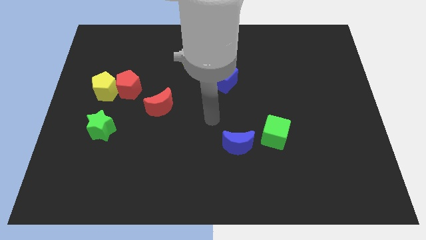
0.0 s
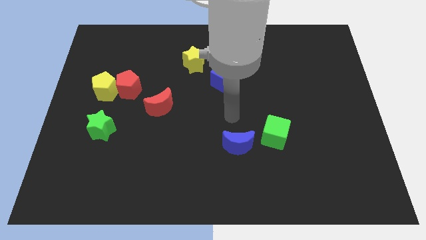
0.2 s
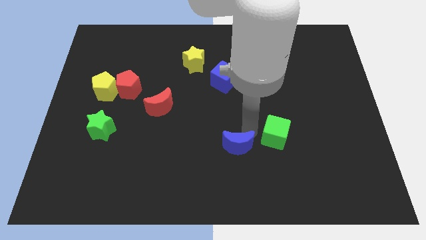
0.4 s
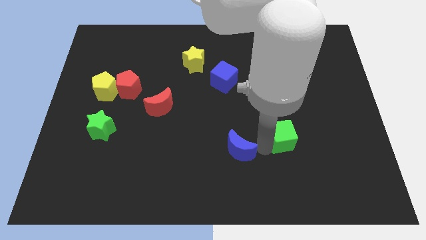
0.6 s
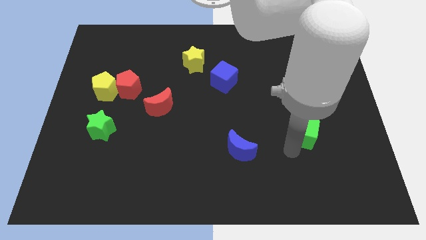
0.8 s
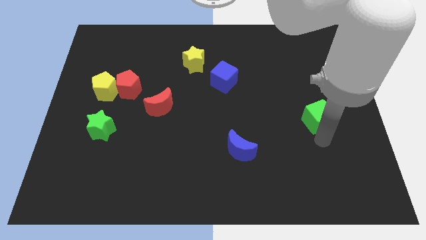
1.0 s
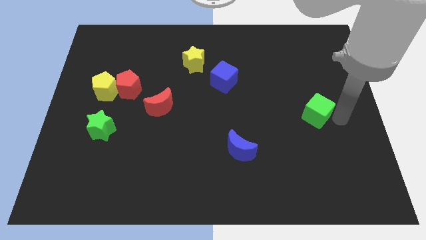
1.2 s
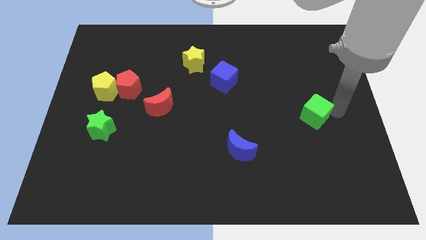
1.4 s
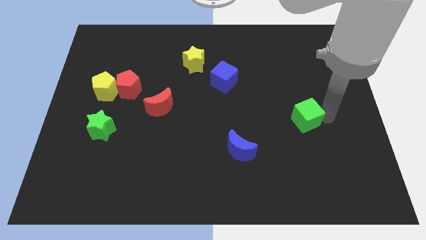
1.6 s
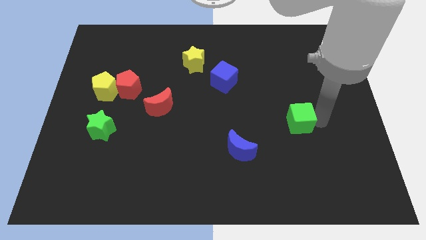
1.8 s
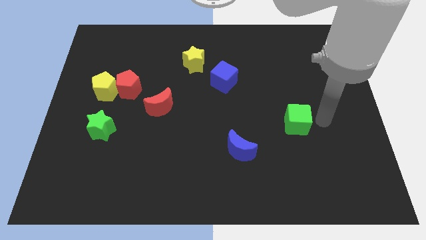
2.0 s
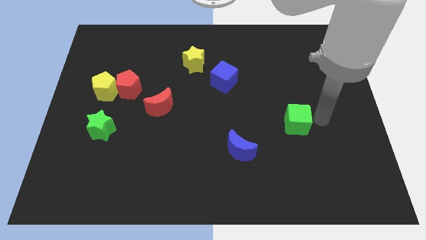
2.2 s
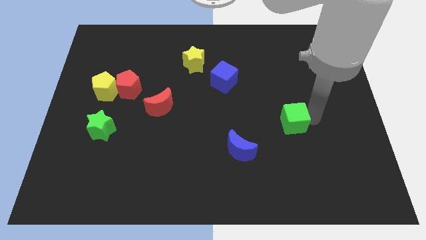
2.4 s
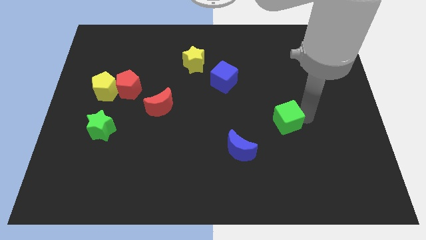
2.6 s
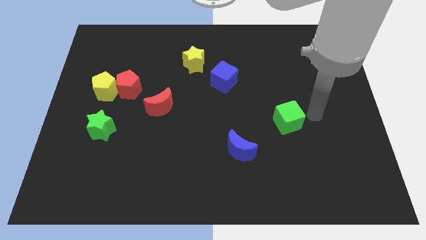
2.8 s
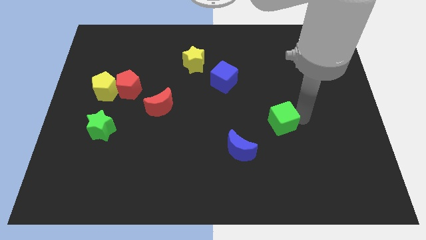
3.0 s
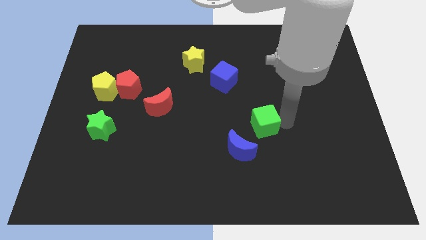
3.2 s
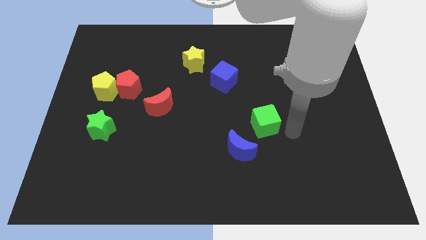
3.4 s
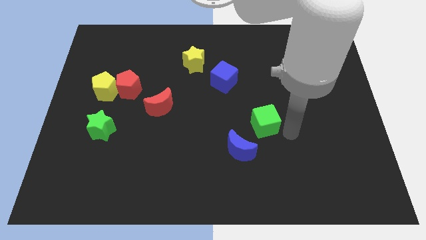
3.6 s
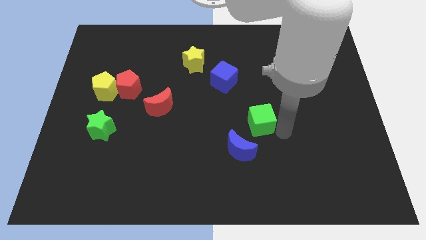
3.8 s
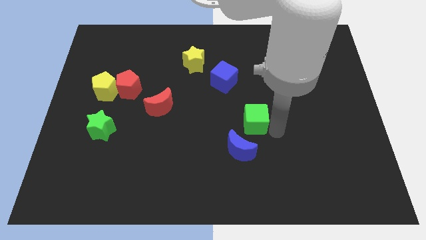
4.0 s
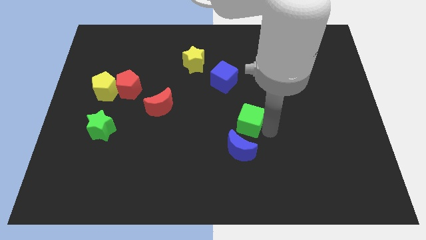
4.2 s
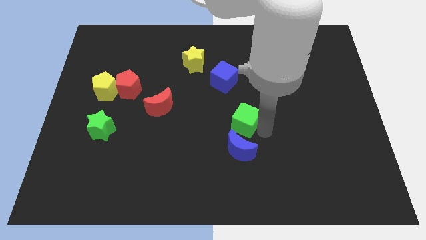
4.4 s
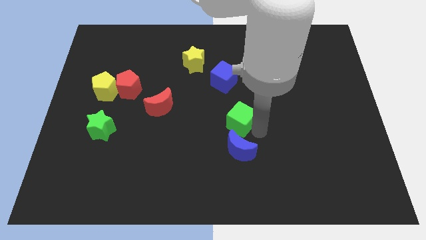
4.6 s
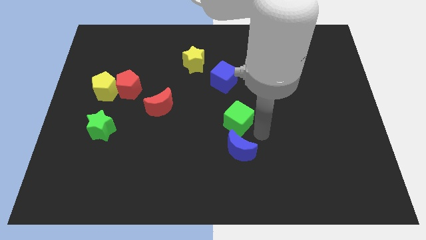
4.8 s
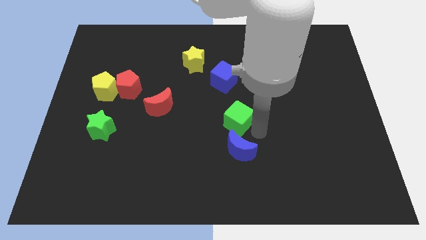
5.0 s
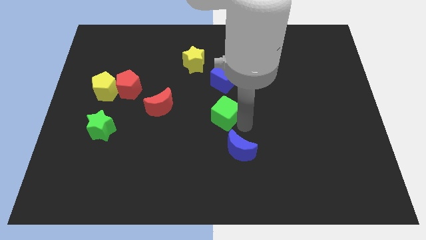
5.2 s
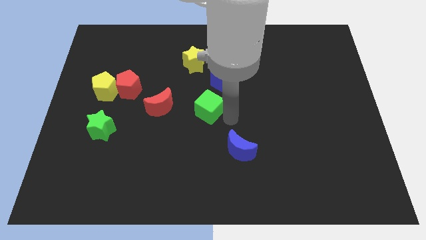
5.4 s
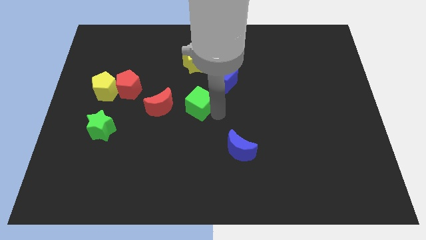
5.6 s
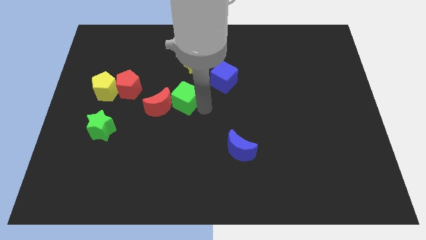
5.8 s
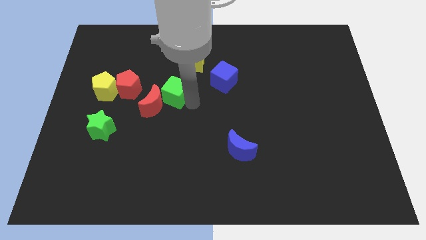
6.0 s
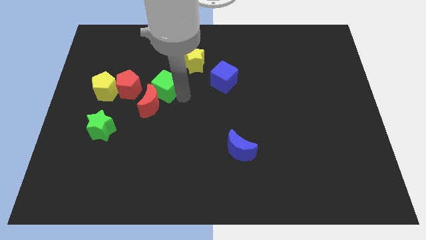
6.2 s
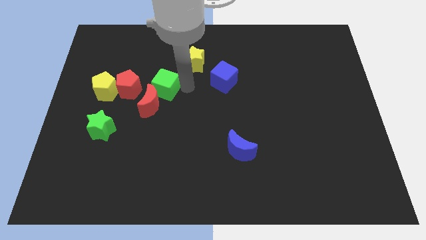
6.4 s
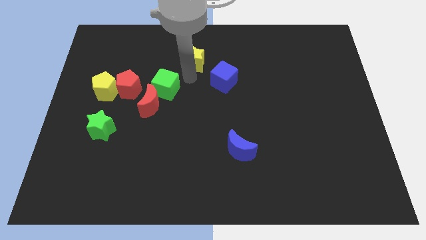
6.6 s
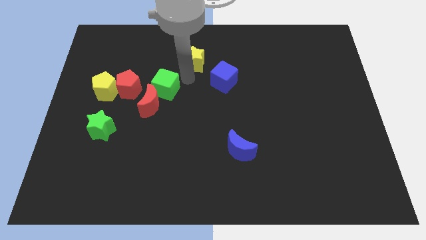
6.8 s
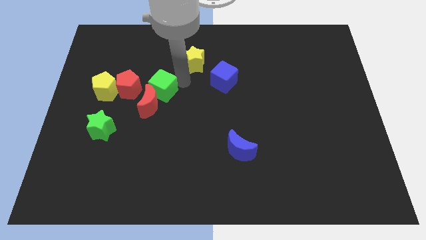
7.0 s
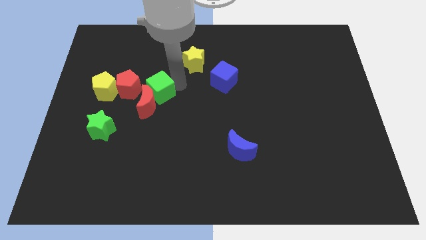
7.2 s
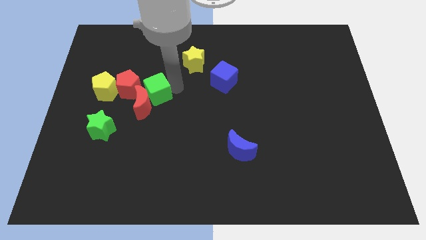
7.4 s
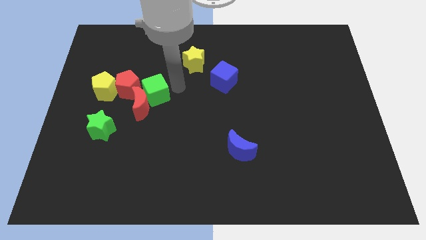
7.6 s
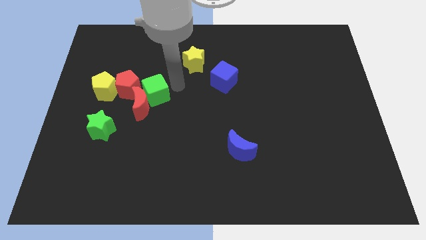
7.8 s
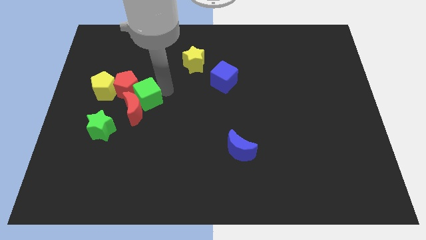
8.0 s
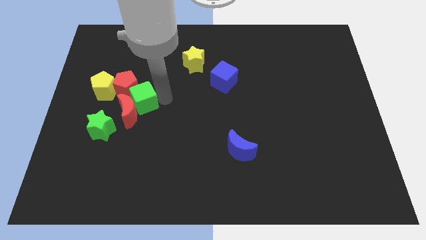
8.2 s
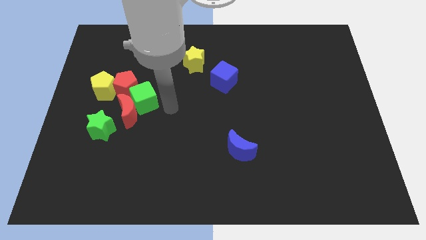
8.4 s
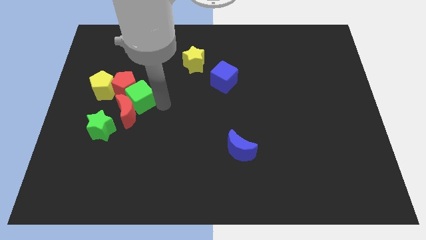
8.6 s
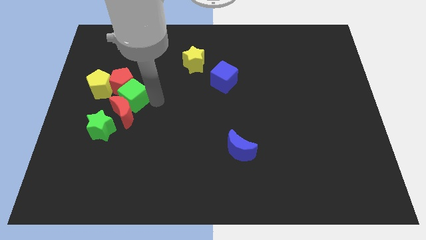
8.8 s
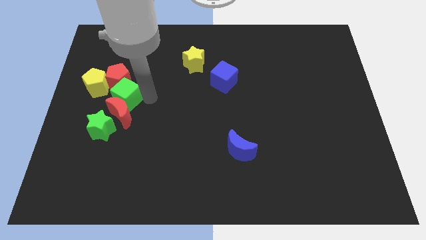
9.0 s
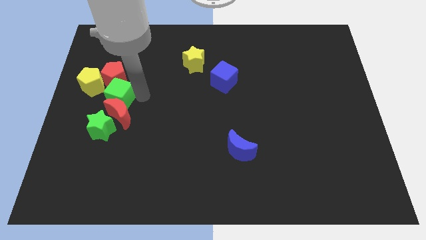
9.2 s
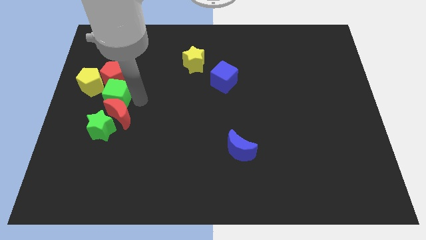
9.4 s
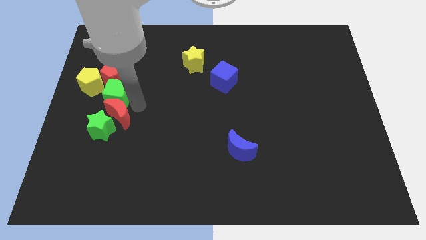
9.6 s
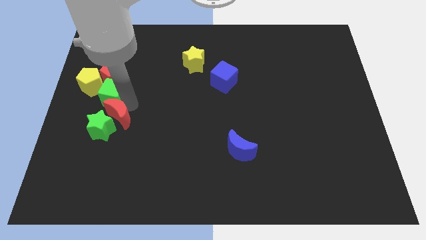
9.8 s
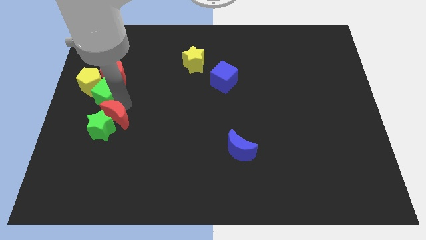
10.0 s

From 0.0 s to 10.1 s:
put the green cube close to the yellow pentagon

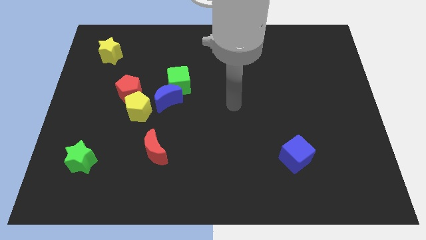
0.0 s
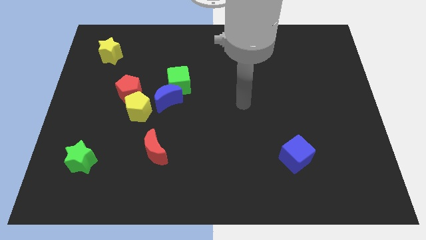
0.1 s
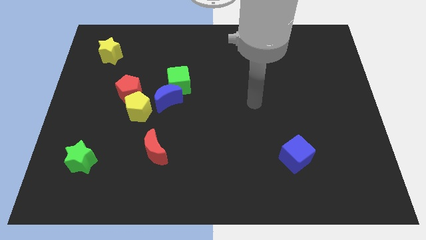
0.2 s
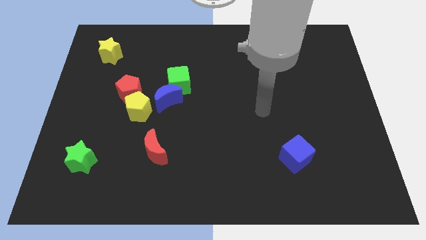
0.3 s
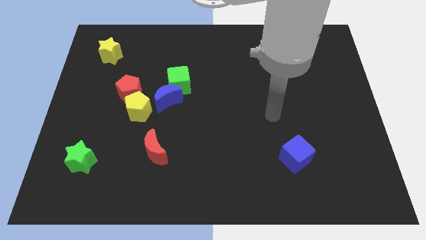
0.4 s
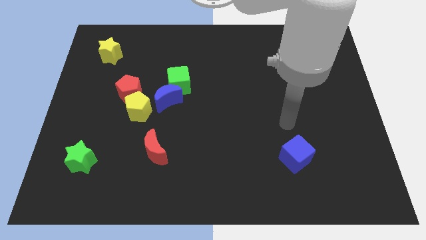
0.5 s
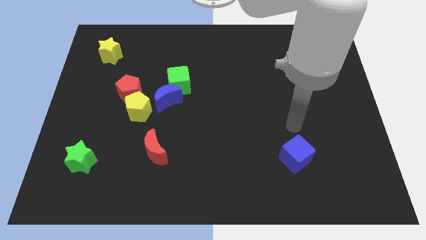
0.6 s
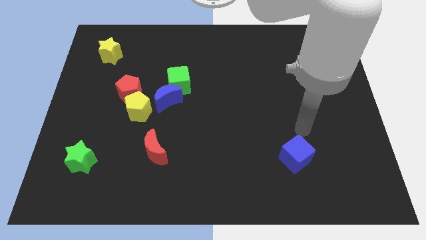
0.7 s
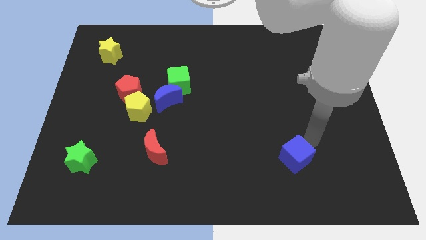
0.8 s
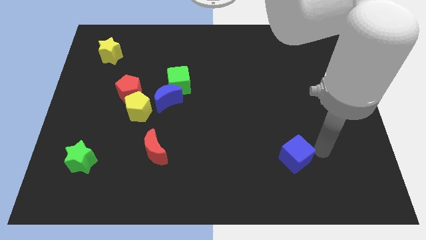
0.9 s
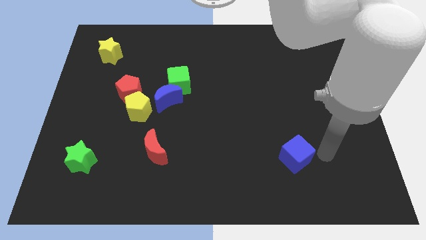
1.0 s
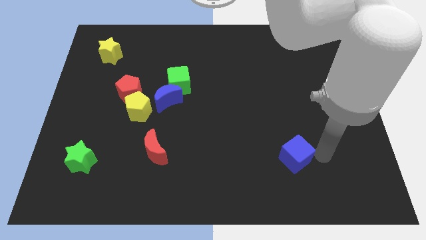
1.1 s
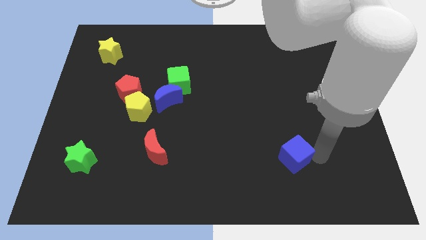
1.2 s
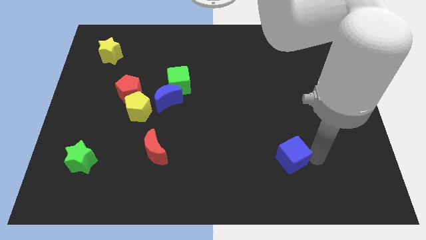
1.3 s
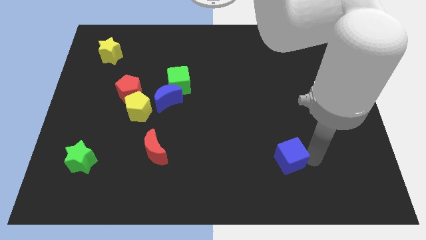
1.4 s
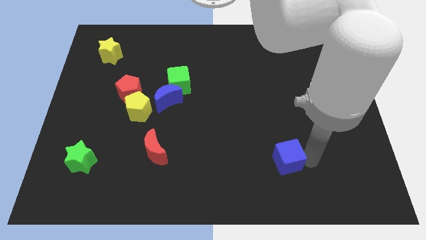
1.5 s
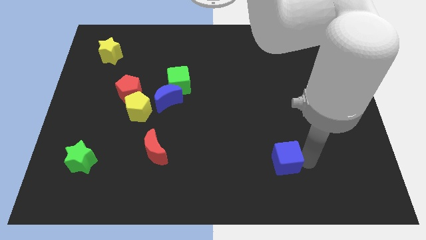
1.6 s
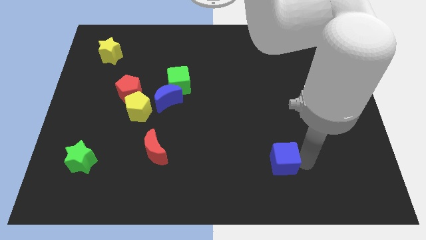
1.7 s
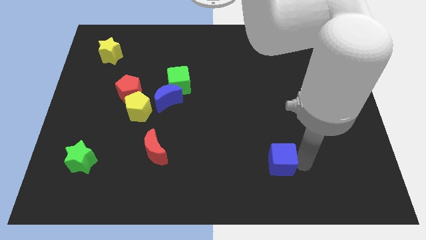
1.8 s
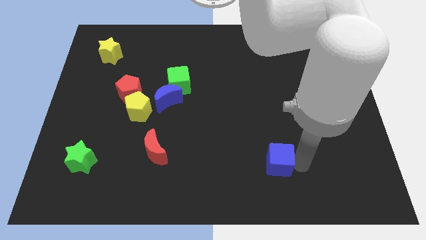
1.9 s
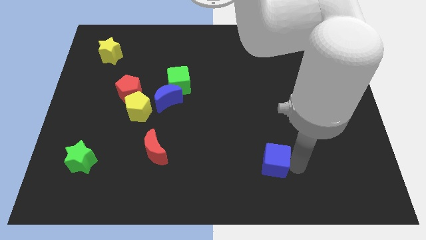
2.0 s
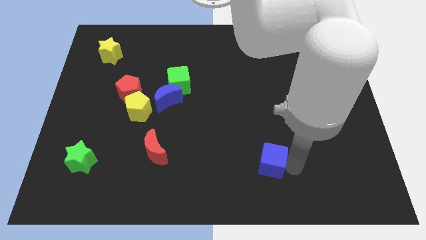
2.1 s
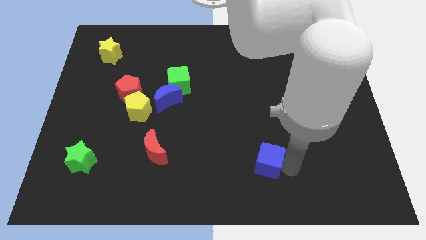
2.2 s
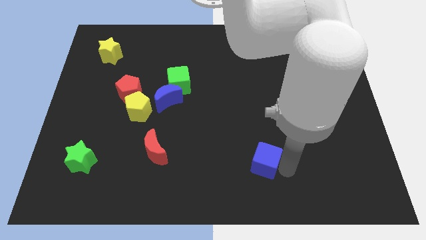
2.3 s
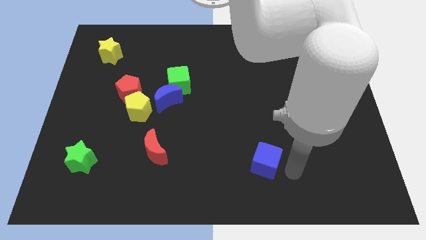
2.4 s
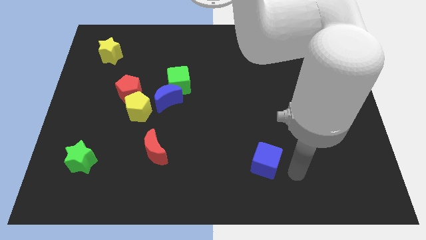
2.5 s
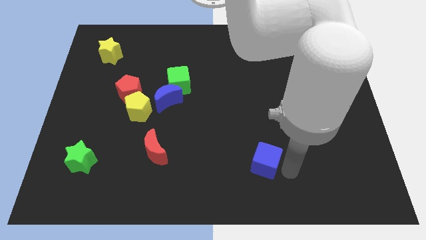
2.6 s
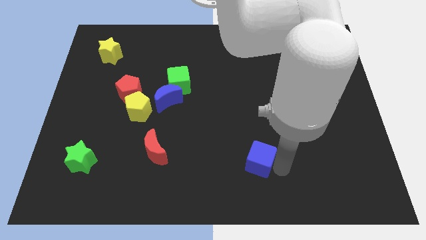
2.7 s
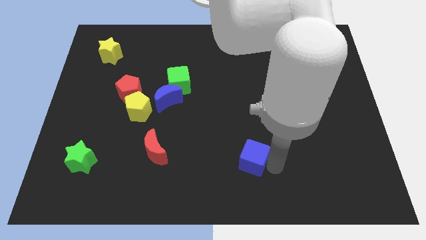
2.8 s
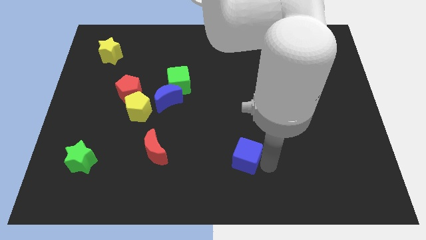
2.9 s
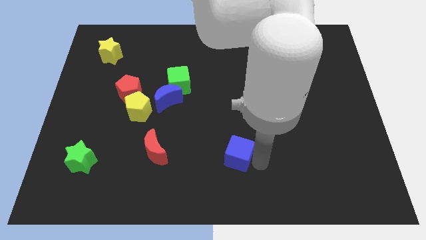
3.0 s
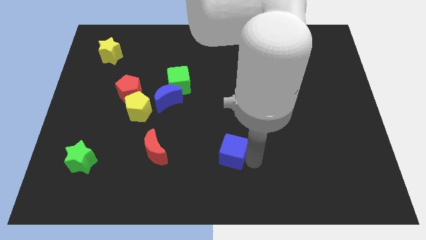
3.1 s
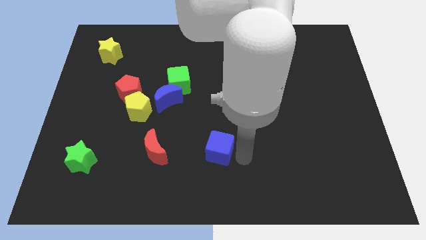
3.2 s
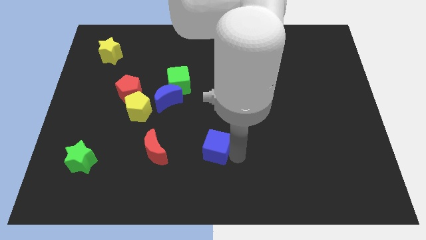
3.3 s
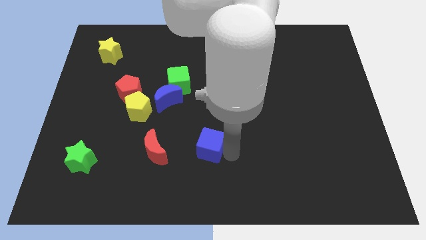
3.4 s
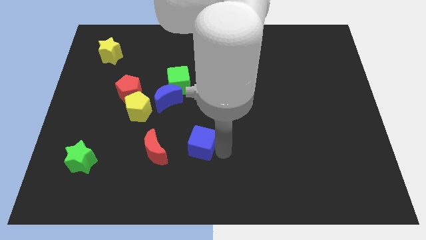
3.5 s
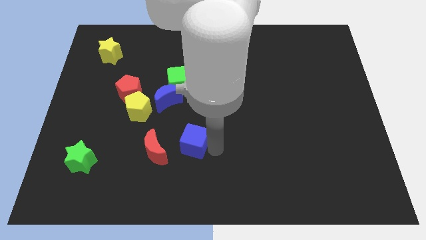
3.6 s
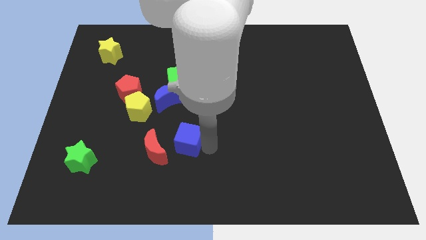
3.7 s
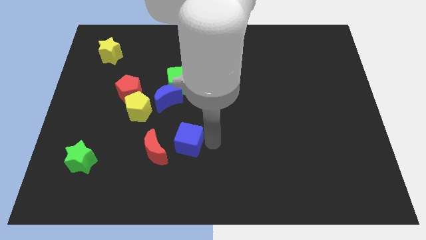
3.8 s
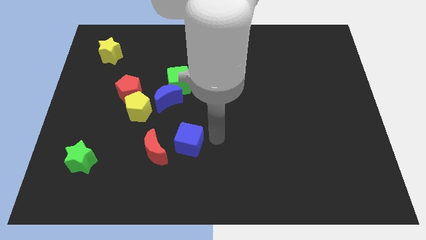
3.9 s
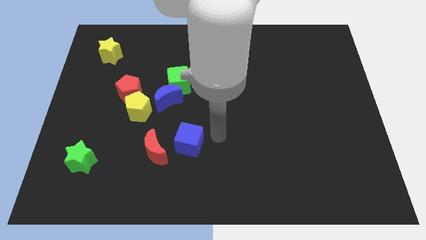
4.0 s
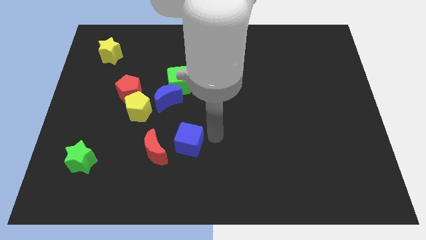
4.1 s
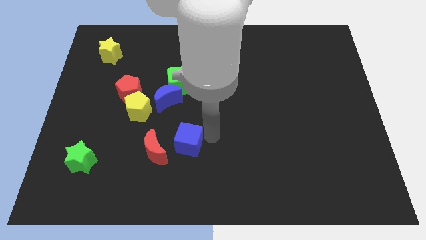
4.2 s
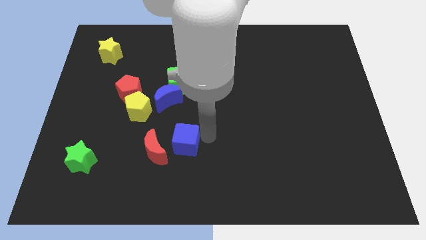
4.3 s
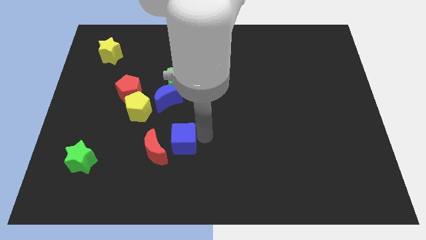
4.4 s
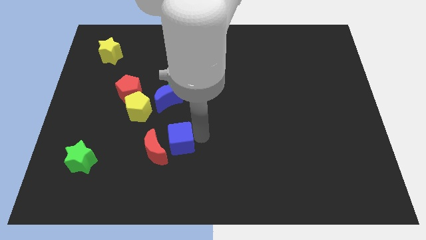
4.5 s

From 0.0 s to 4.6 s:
push the blue cube close to the red moon
